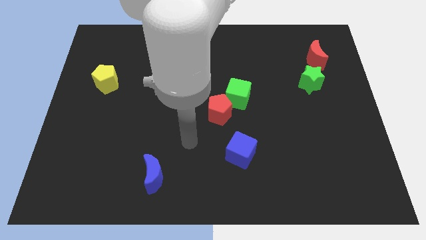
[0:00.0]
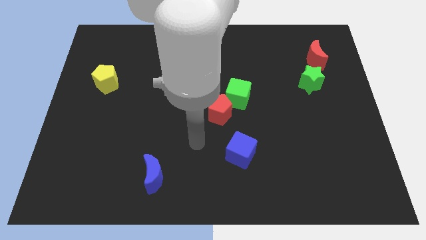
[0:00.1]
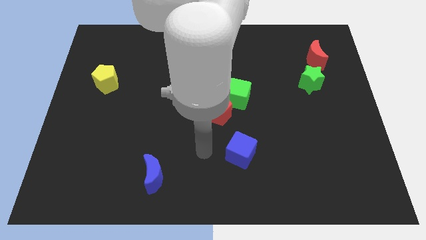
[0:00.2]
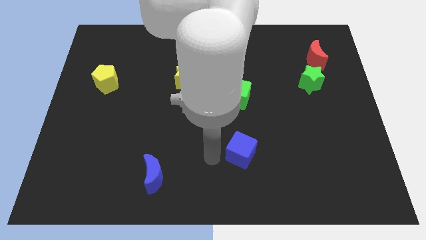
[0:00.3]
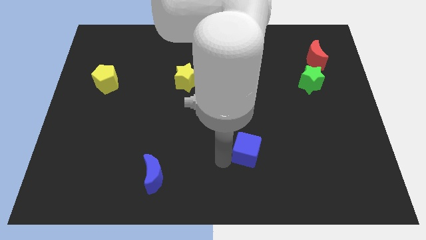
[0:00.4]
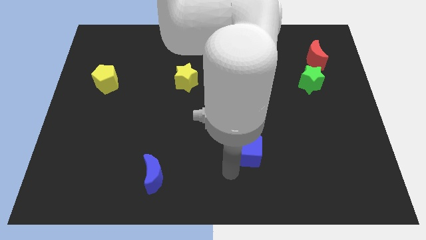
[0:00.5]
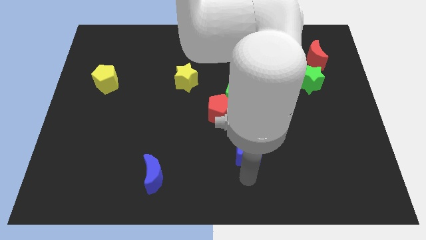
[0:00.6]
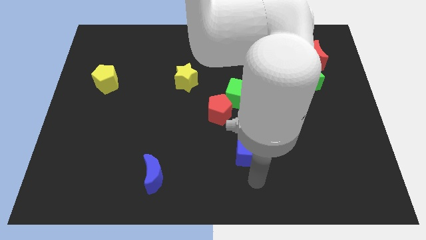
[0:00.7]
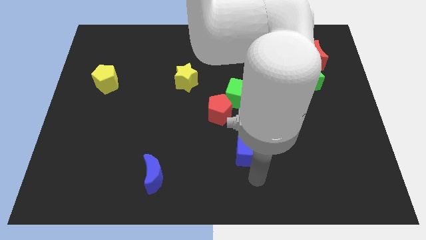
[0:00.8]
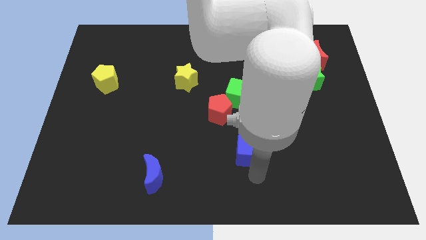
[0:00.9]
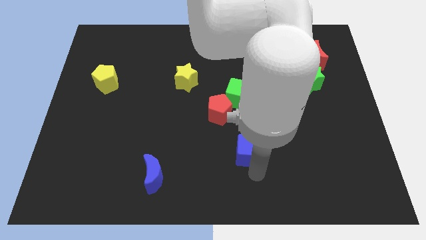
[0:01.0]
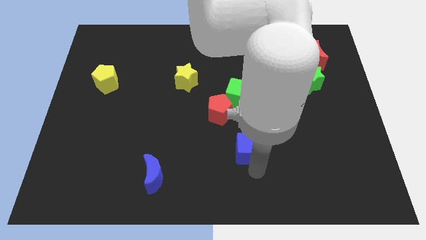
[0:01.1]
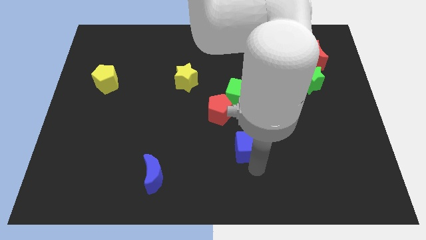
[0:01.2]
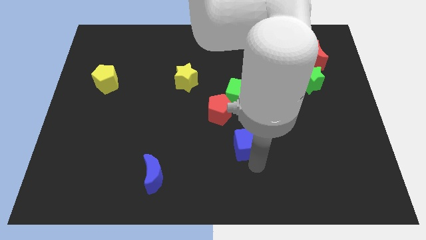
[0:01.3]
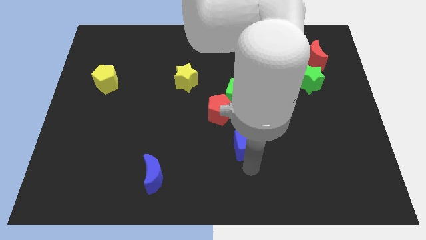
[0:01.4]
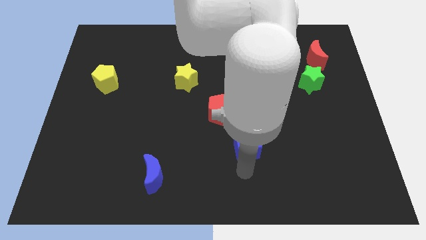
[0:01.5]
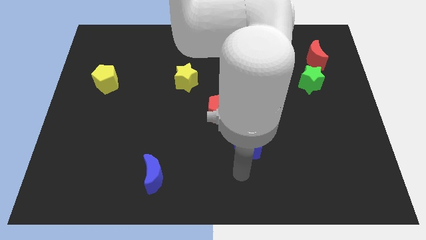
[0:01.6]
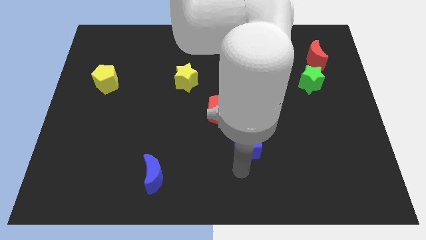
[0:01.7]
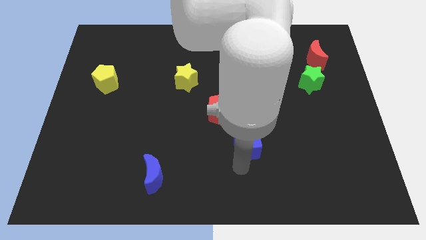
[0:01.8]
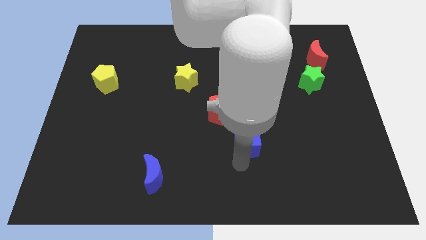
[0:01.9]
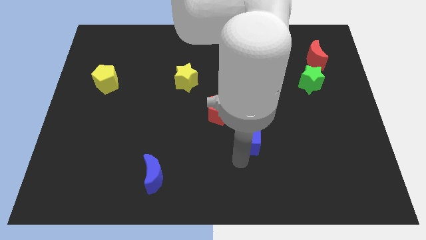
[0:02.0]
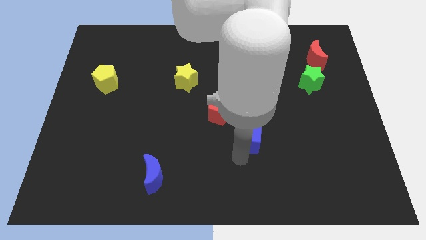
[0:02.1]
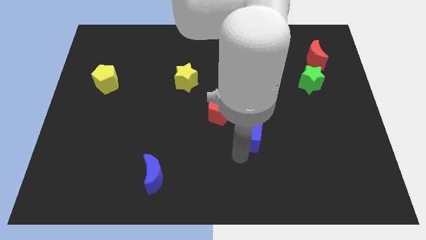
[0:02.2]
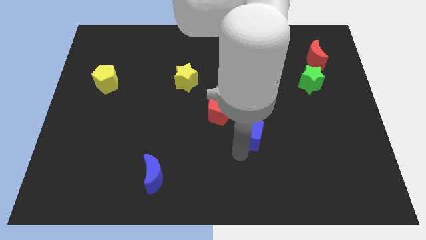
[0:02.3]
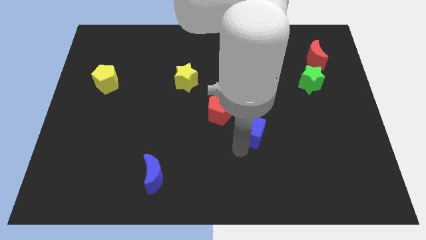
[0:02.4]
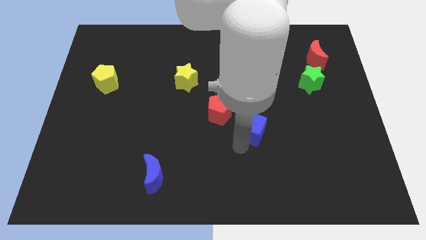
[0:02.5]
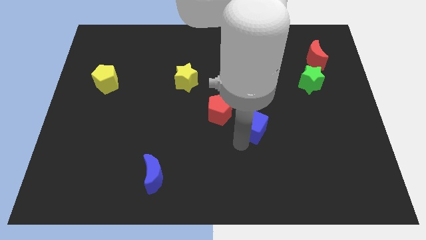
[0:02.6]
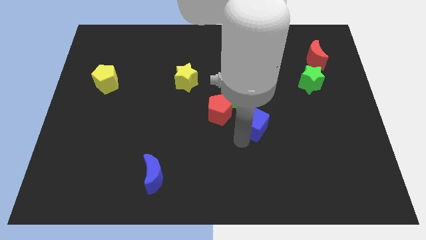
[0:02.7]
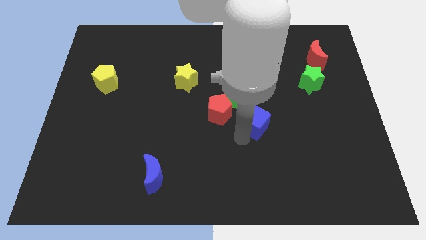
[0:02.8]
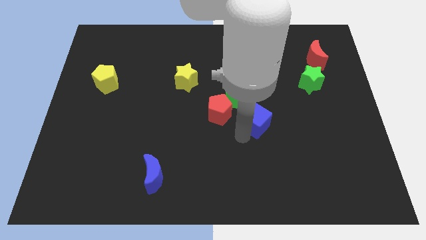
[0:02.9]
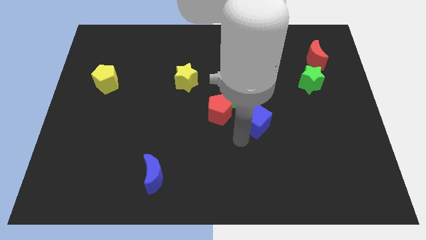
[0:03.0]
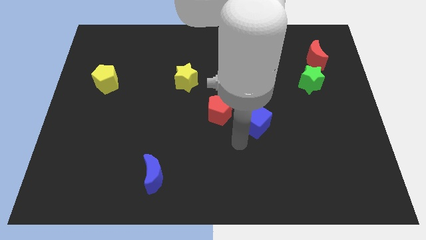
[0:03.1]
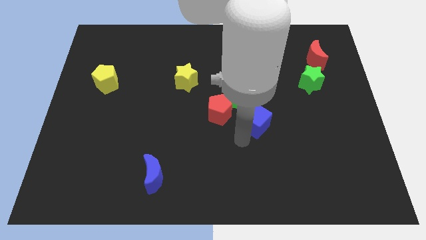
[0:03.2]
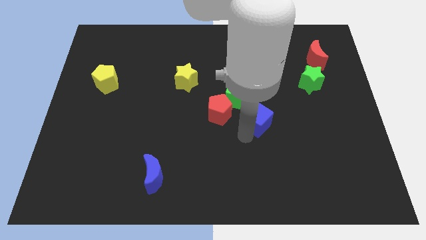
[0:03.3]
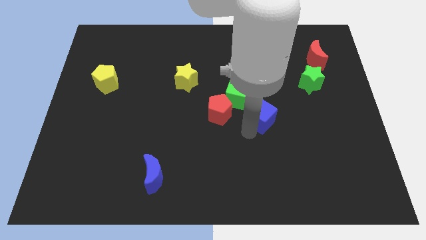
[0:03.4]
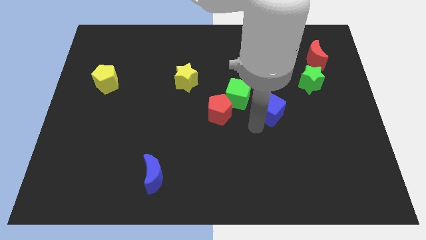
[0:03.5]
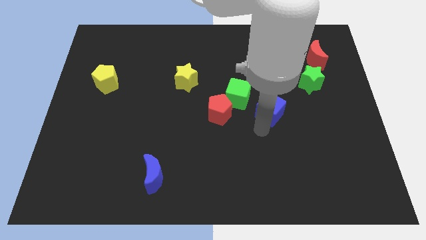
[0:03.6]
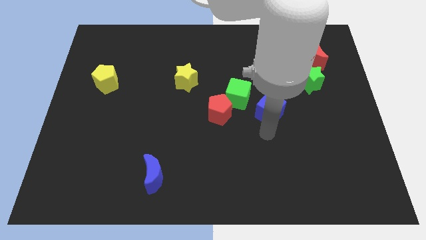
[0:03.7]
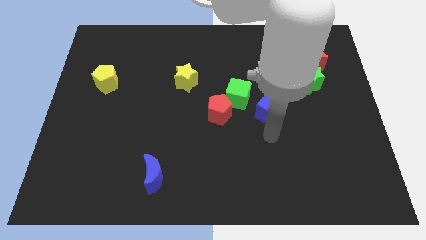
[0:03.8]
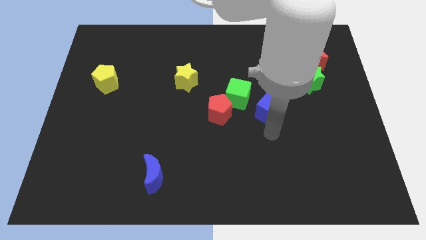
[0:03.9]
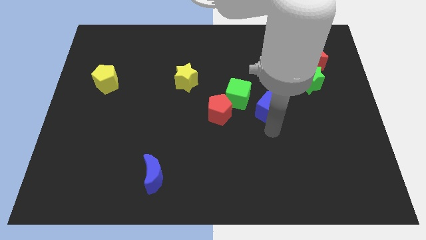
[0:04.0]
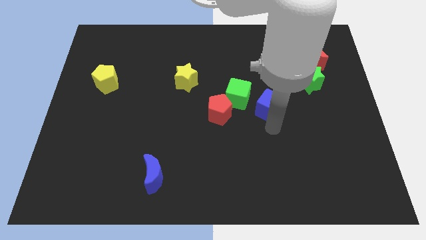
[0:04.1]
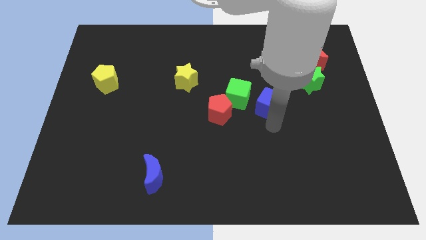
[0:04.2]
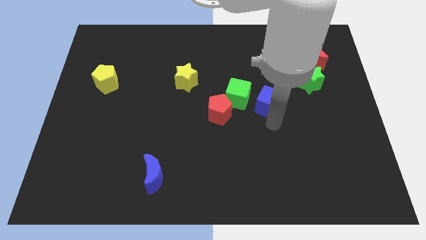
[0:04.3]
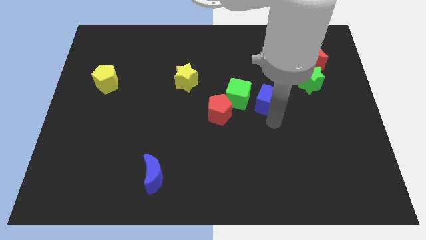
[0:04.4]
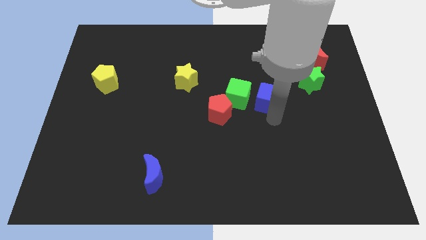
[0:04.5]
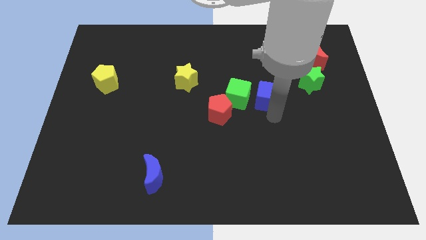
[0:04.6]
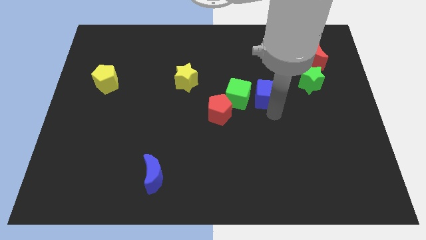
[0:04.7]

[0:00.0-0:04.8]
put the blue cube left of the green star

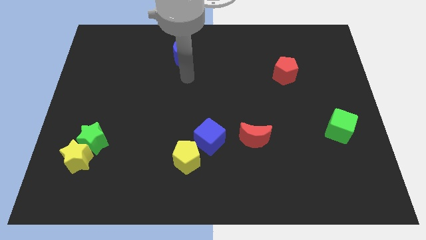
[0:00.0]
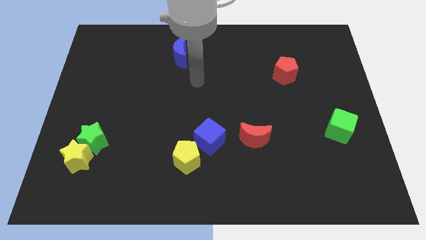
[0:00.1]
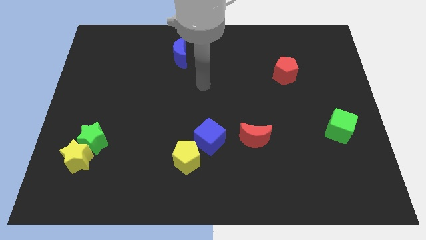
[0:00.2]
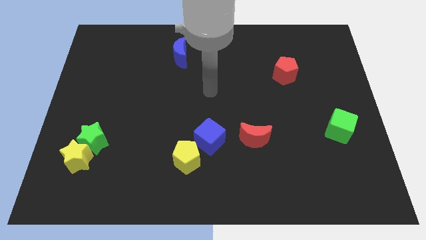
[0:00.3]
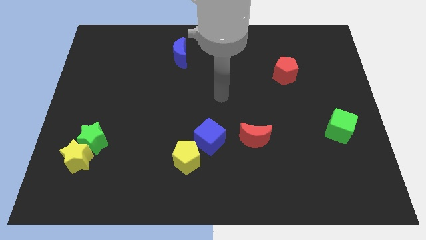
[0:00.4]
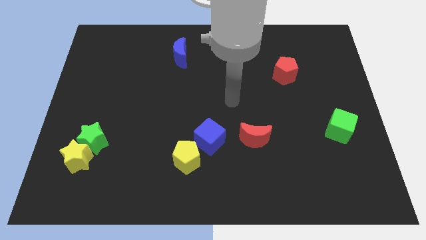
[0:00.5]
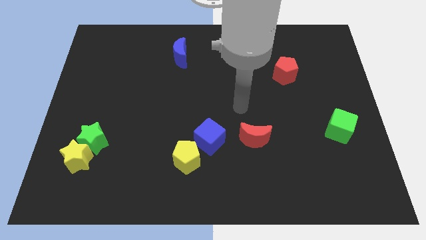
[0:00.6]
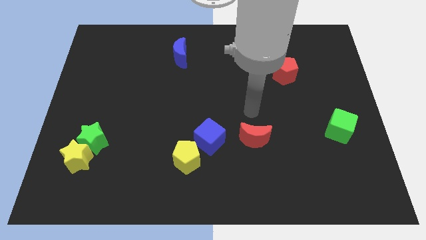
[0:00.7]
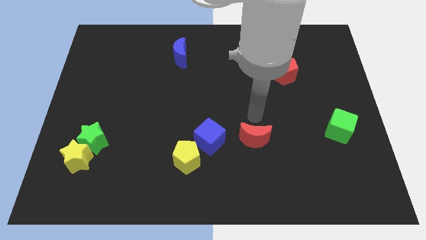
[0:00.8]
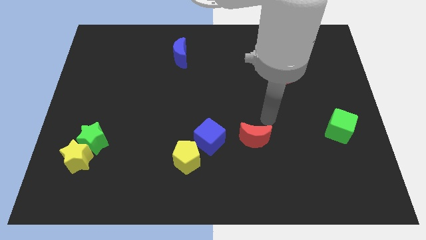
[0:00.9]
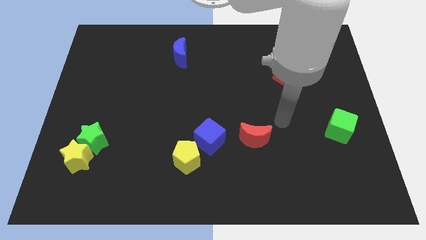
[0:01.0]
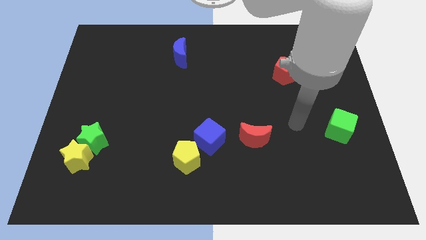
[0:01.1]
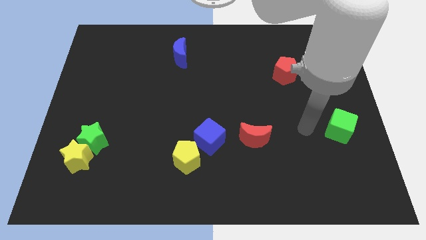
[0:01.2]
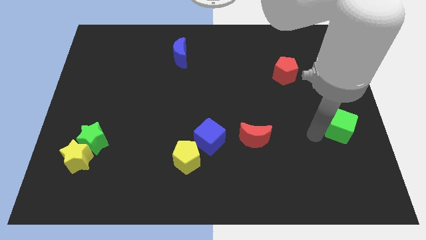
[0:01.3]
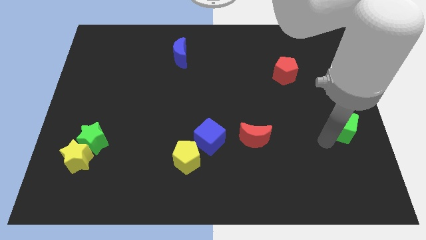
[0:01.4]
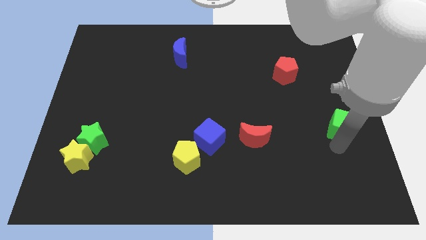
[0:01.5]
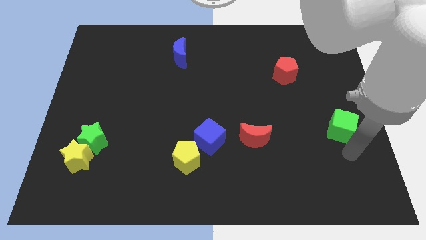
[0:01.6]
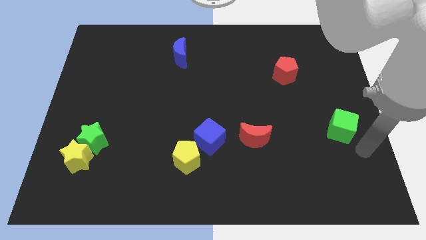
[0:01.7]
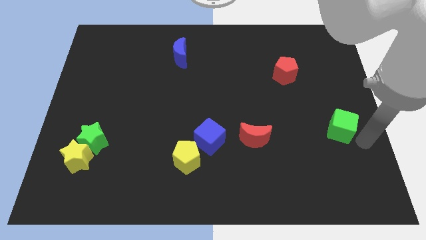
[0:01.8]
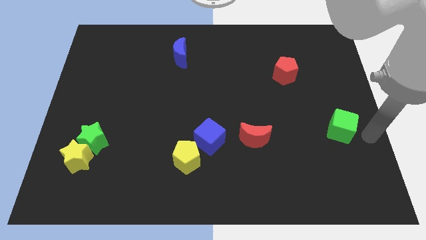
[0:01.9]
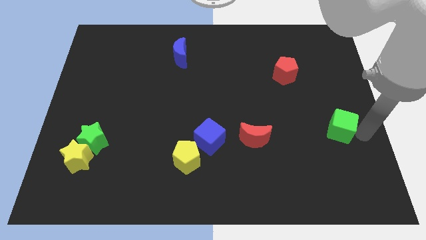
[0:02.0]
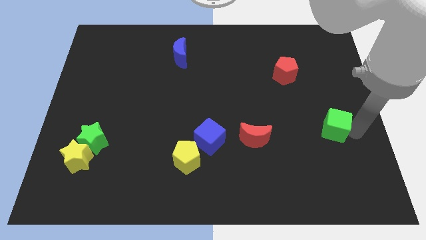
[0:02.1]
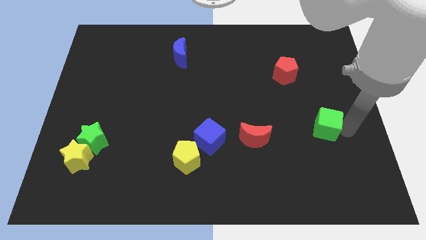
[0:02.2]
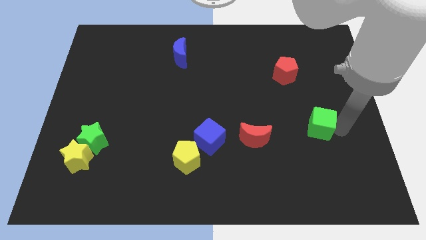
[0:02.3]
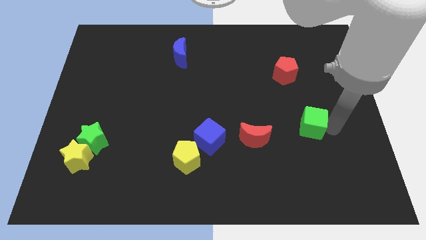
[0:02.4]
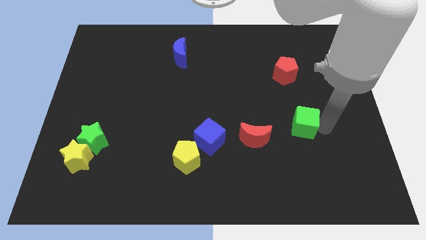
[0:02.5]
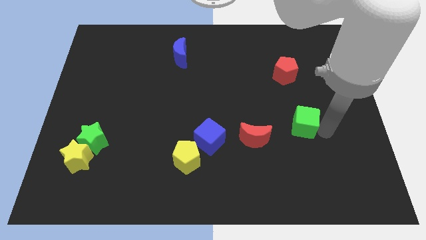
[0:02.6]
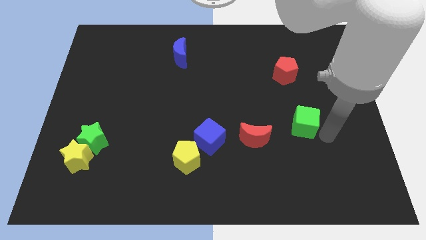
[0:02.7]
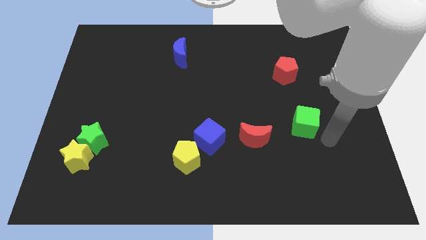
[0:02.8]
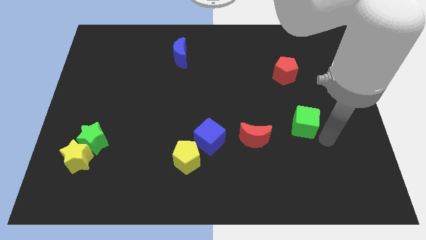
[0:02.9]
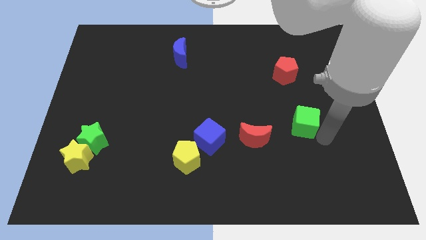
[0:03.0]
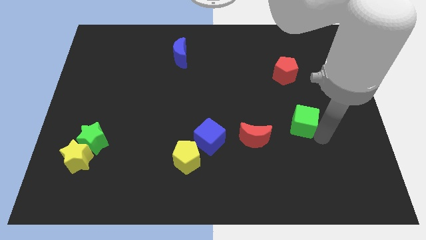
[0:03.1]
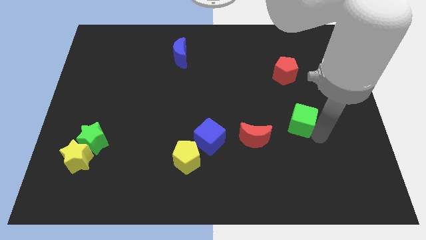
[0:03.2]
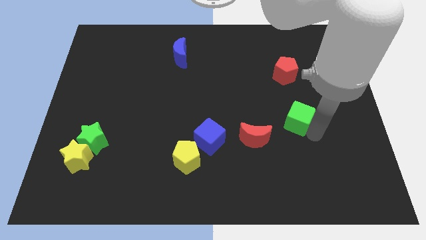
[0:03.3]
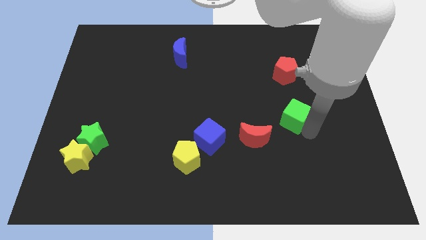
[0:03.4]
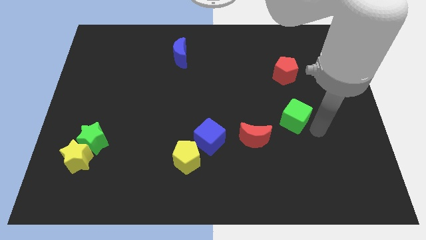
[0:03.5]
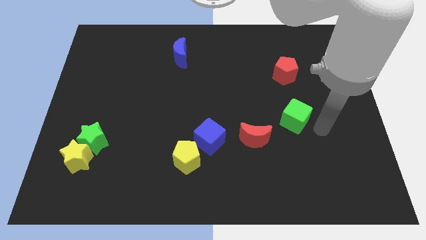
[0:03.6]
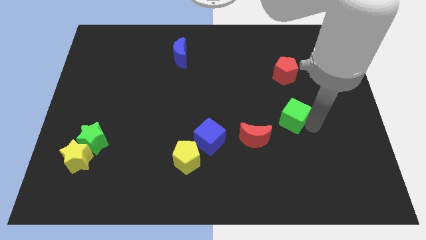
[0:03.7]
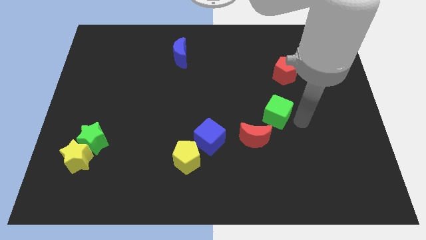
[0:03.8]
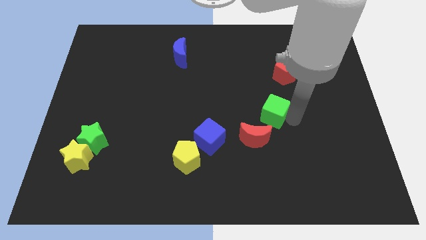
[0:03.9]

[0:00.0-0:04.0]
push the green cube to the top side of the red moon
